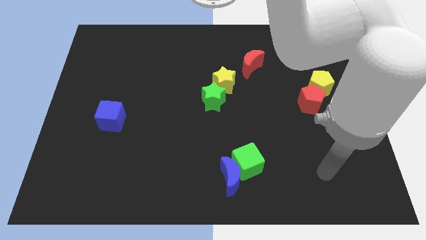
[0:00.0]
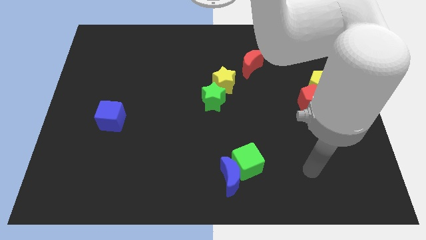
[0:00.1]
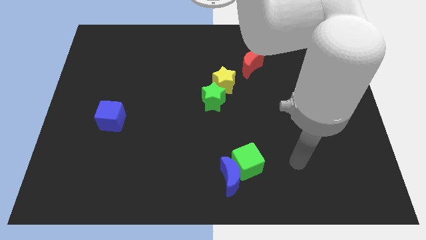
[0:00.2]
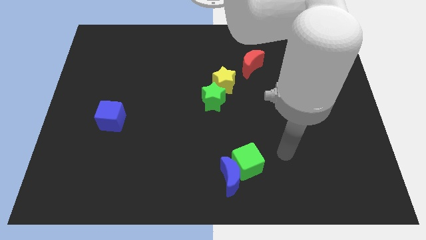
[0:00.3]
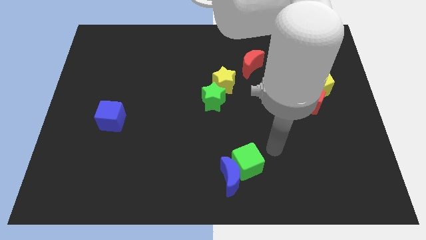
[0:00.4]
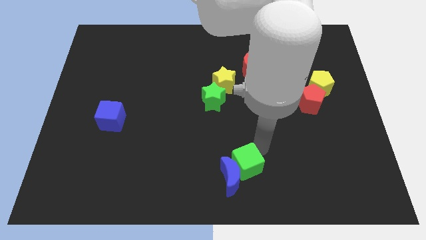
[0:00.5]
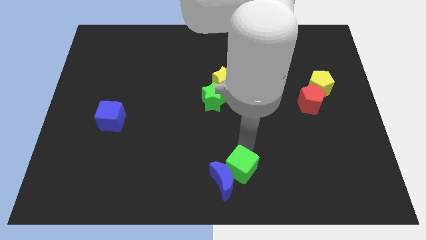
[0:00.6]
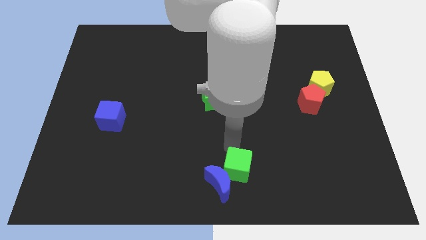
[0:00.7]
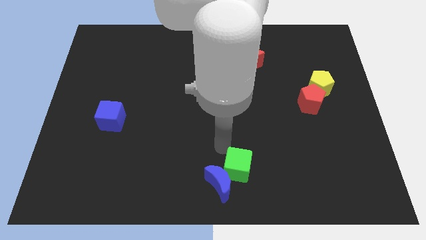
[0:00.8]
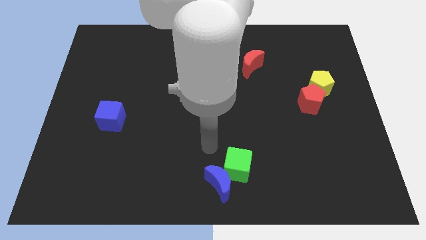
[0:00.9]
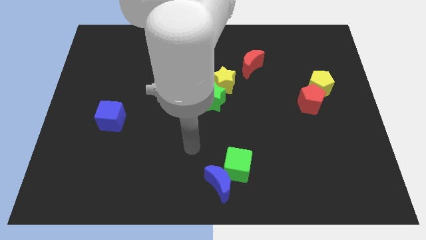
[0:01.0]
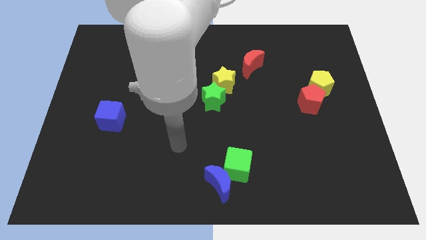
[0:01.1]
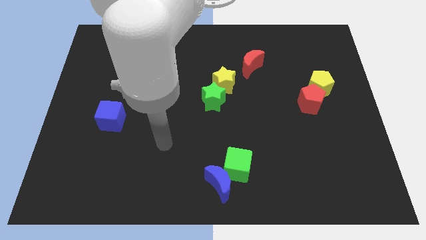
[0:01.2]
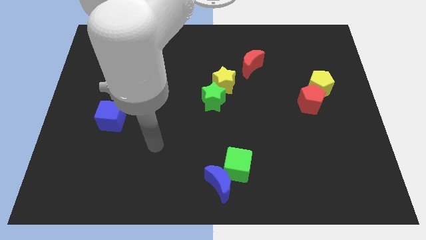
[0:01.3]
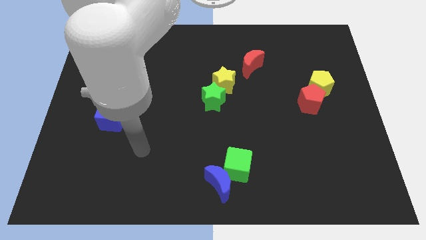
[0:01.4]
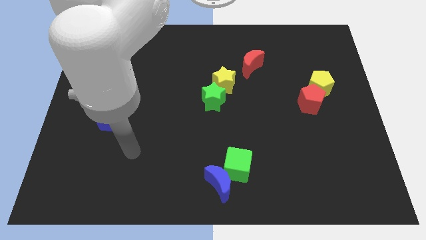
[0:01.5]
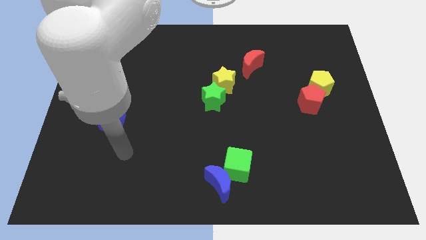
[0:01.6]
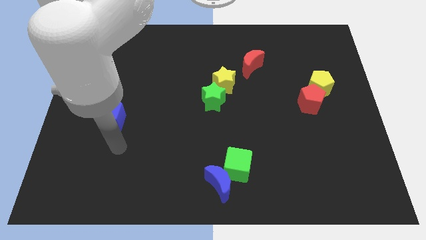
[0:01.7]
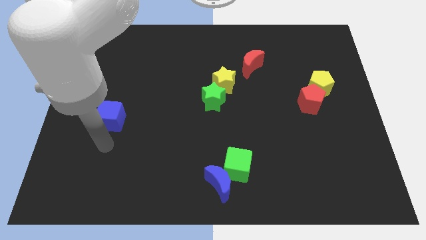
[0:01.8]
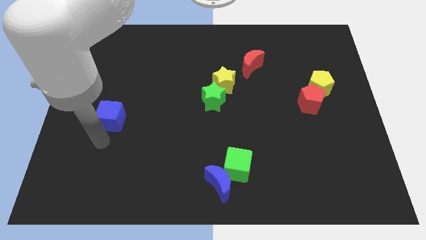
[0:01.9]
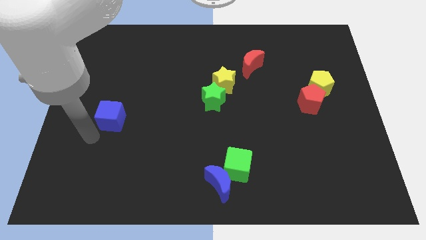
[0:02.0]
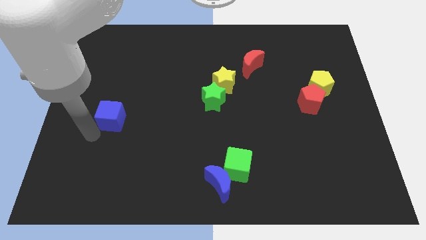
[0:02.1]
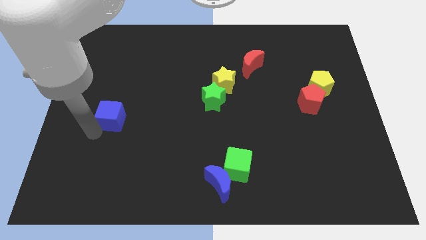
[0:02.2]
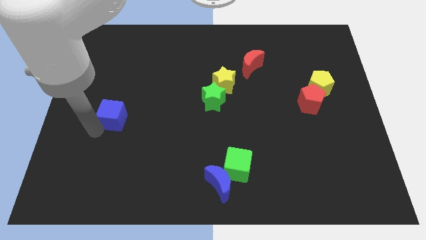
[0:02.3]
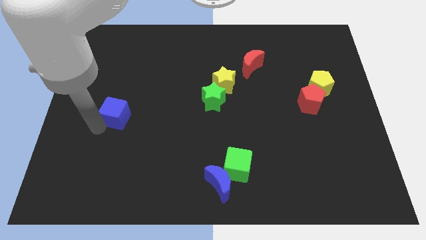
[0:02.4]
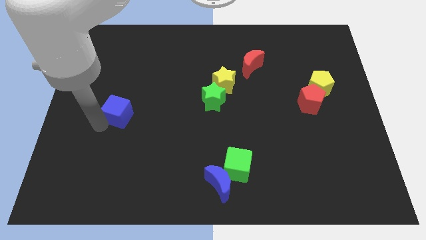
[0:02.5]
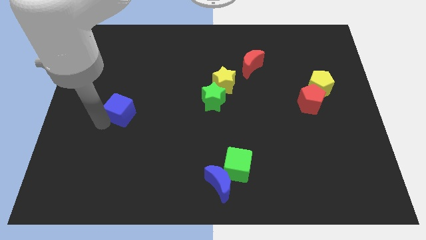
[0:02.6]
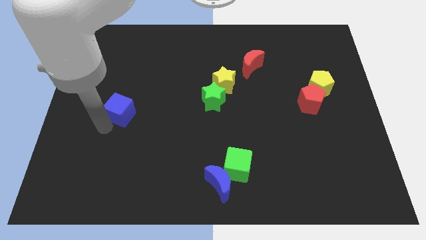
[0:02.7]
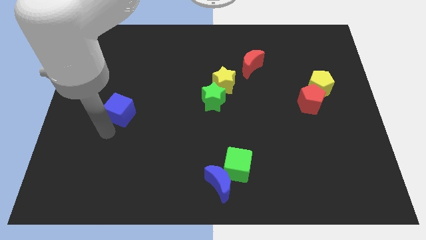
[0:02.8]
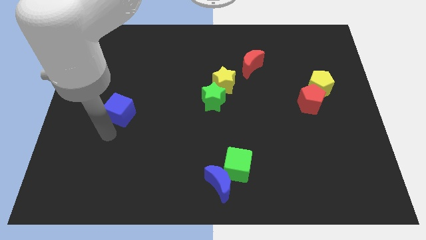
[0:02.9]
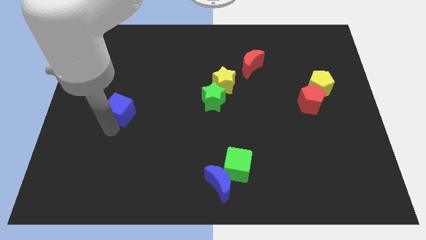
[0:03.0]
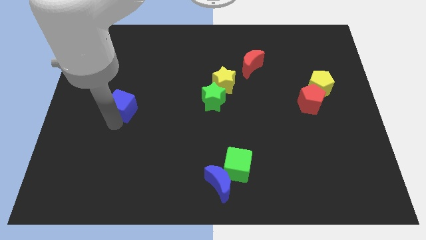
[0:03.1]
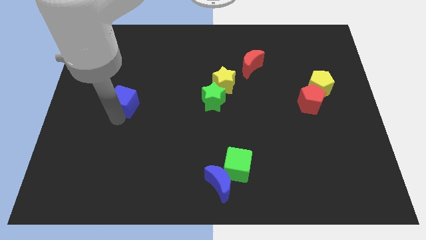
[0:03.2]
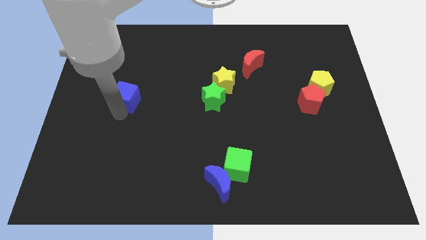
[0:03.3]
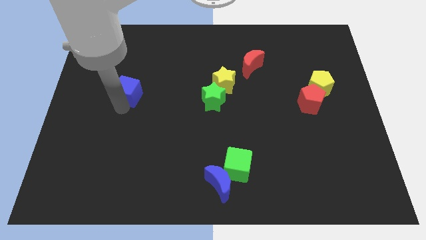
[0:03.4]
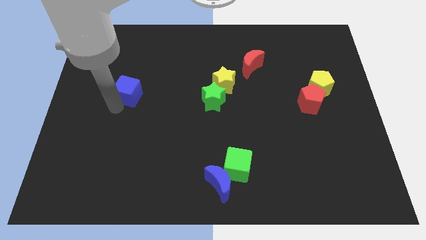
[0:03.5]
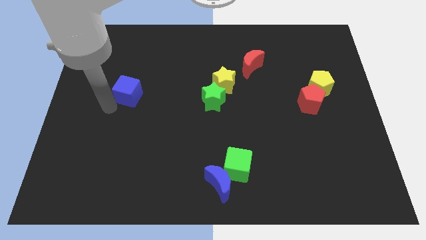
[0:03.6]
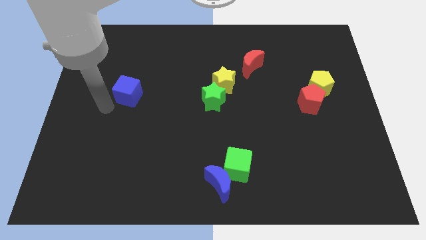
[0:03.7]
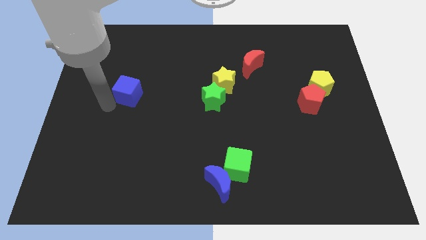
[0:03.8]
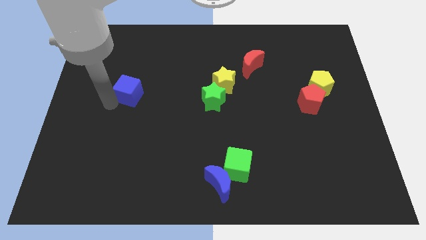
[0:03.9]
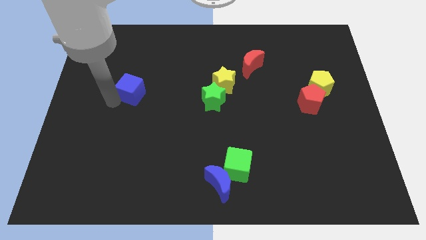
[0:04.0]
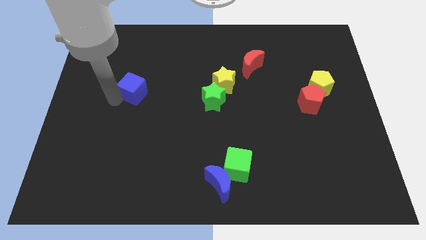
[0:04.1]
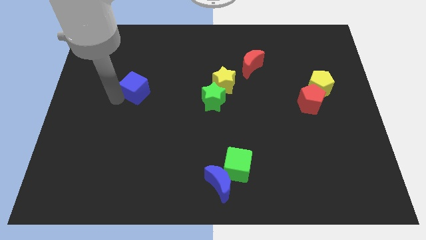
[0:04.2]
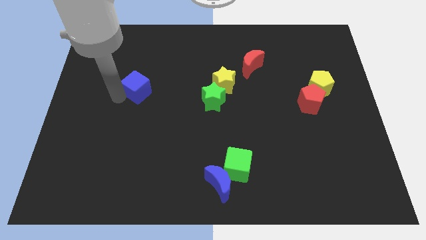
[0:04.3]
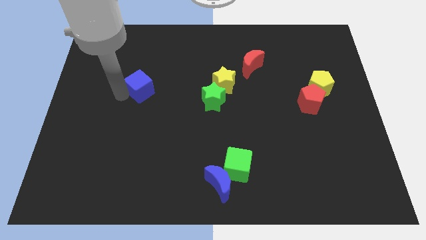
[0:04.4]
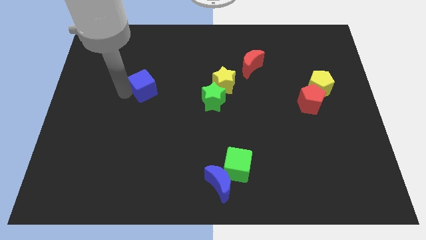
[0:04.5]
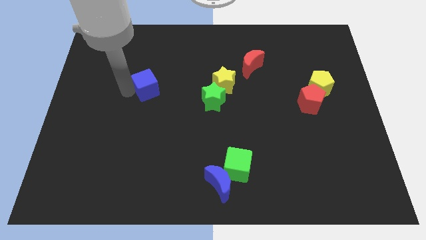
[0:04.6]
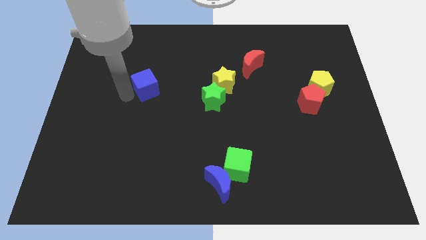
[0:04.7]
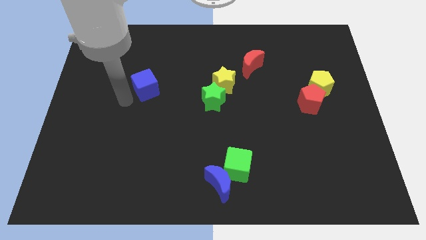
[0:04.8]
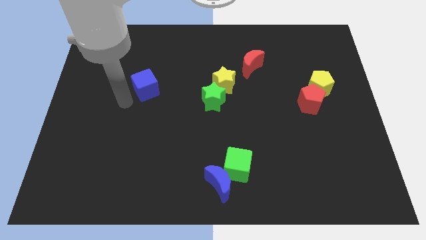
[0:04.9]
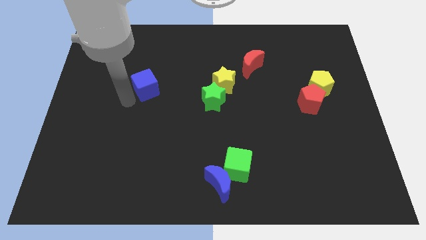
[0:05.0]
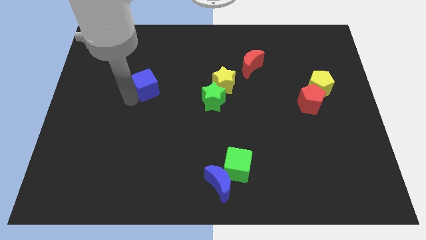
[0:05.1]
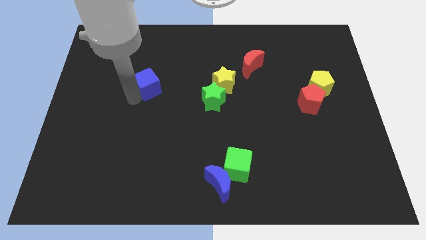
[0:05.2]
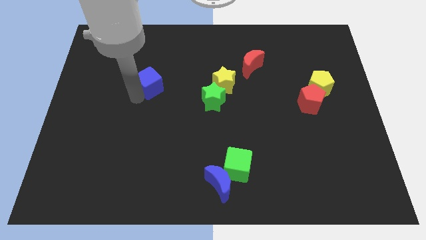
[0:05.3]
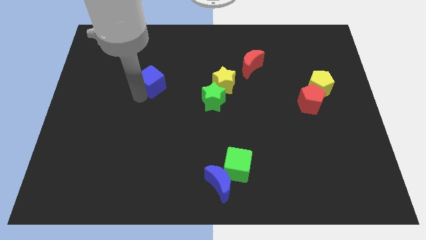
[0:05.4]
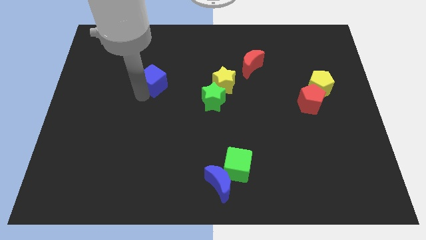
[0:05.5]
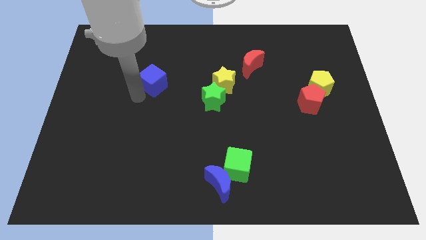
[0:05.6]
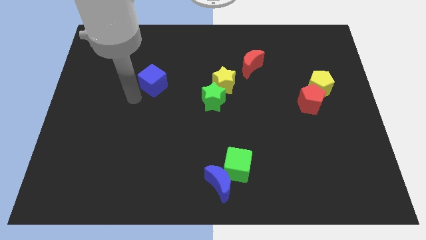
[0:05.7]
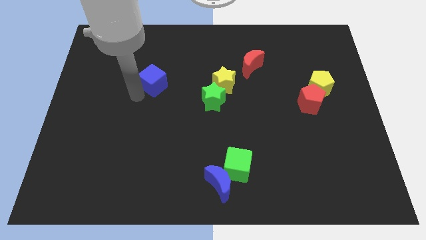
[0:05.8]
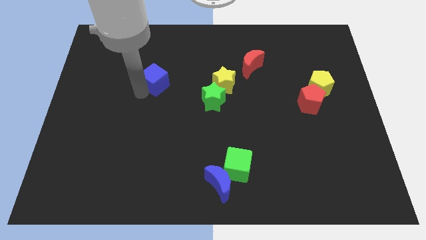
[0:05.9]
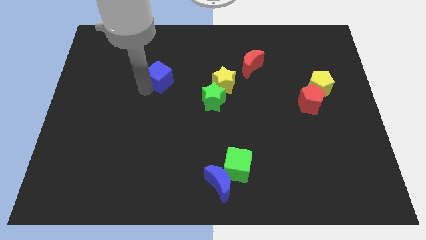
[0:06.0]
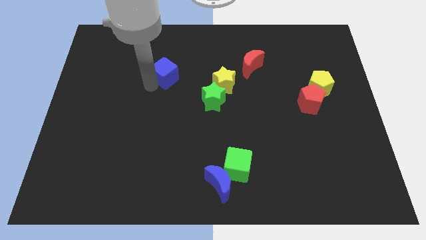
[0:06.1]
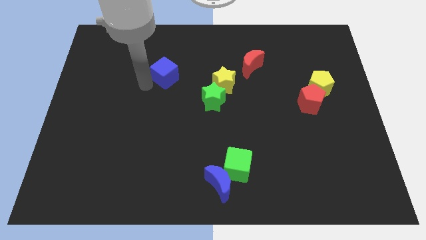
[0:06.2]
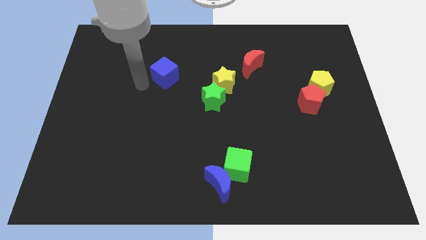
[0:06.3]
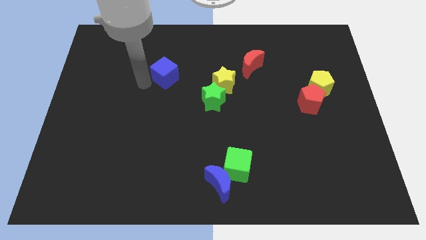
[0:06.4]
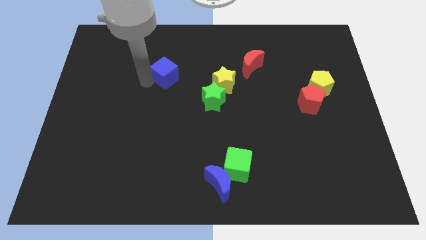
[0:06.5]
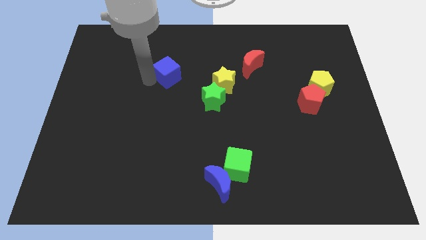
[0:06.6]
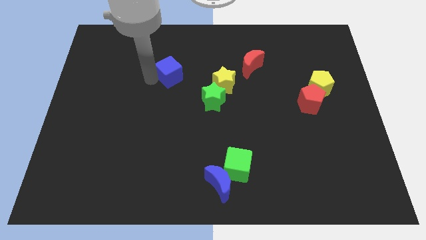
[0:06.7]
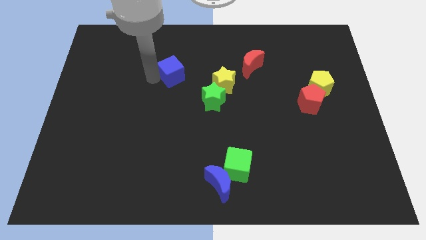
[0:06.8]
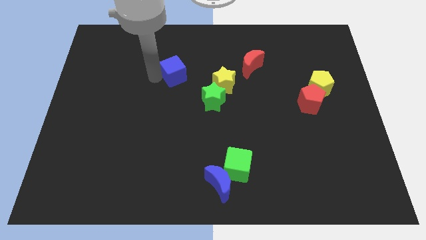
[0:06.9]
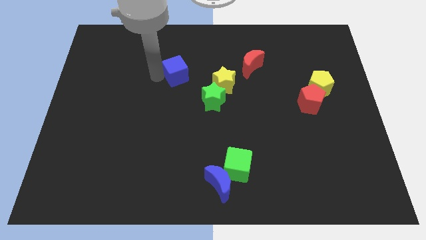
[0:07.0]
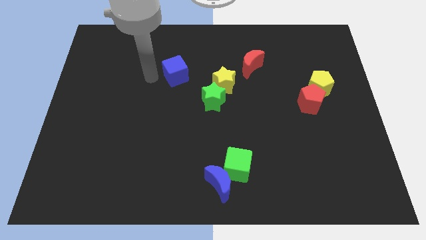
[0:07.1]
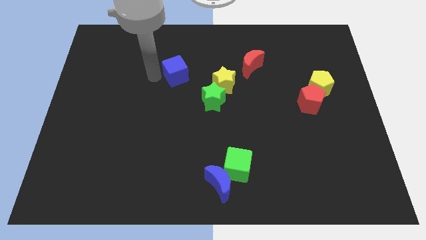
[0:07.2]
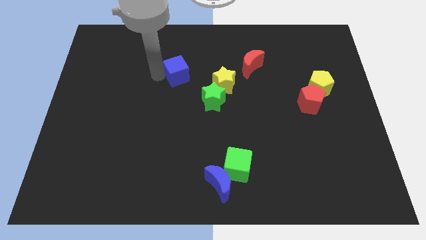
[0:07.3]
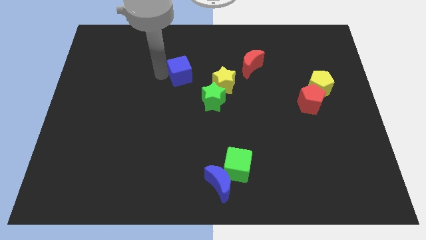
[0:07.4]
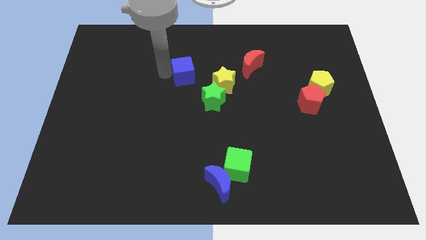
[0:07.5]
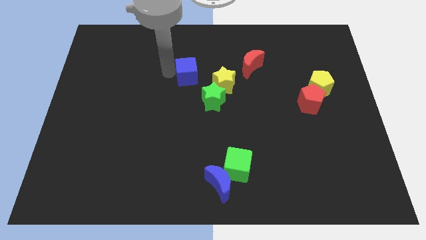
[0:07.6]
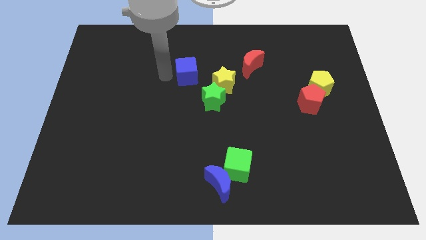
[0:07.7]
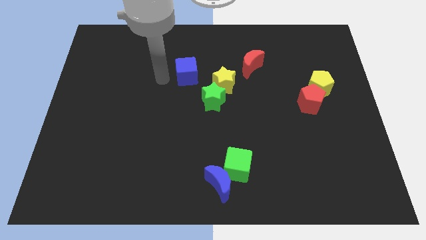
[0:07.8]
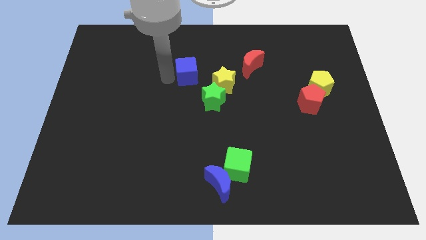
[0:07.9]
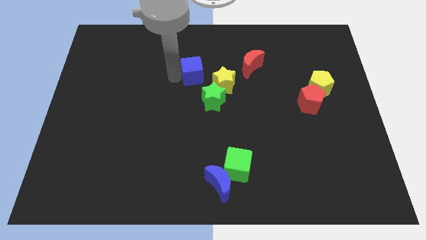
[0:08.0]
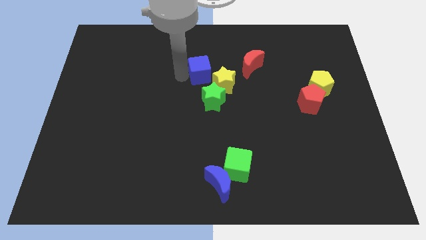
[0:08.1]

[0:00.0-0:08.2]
put the blue cube to the top side of the green star
